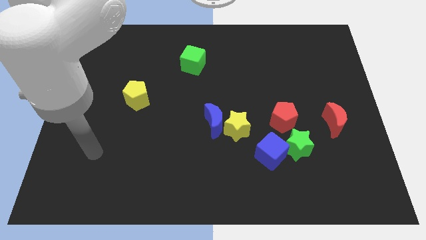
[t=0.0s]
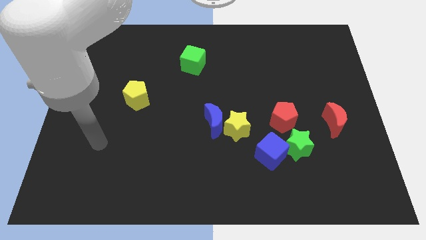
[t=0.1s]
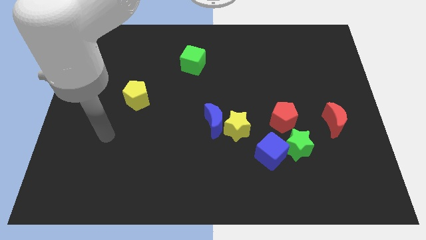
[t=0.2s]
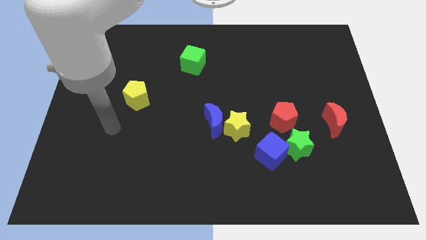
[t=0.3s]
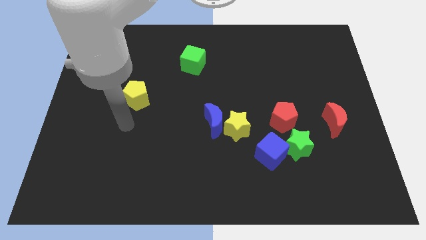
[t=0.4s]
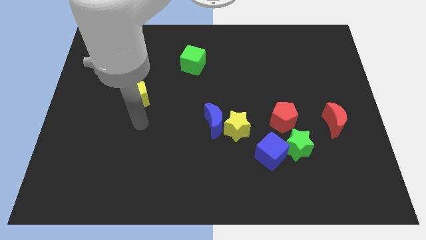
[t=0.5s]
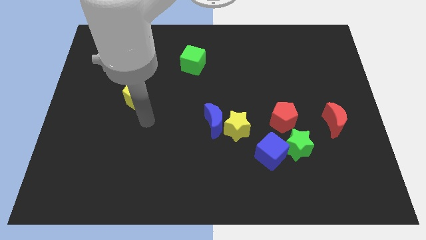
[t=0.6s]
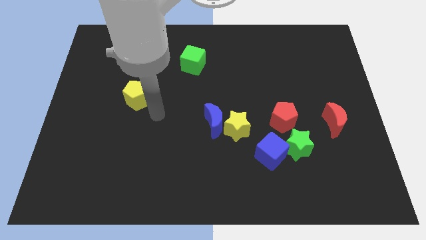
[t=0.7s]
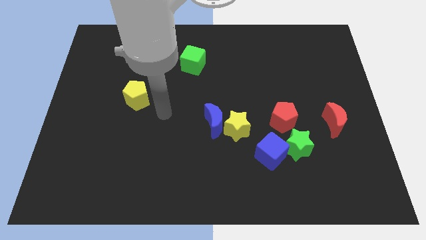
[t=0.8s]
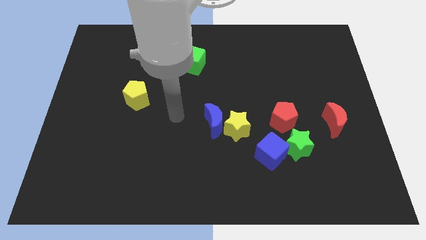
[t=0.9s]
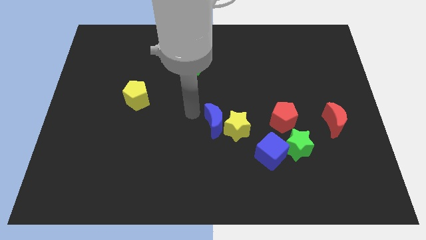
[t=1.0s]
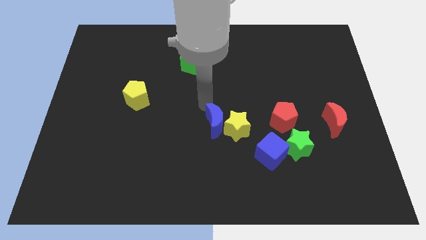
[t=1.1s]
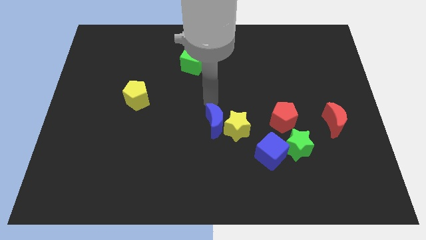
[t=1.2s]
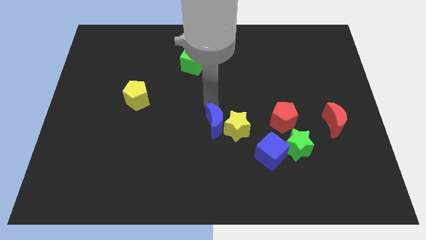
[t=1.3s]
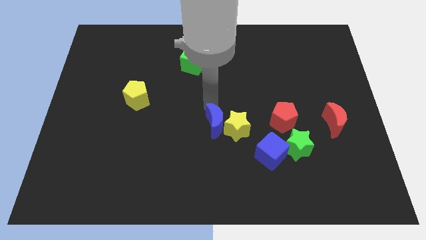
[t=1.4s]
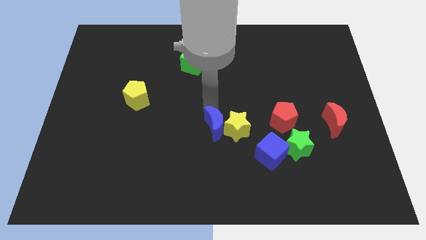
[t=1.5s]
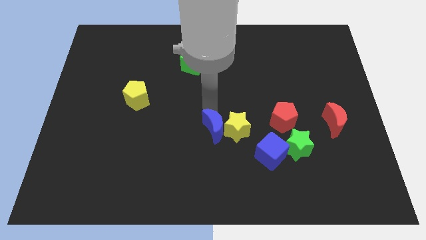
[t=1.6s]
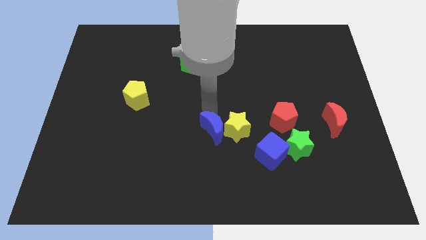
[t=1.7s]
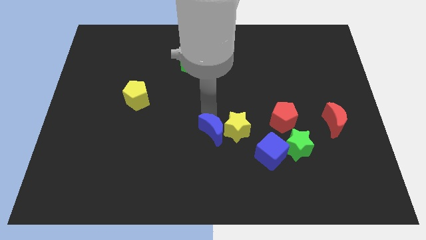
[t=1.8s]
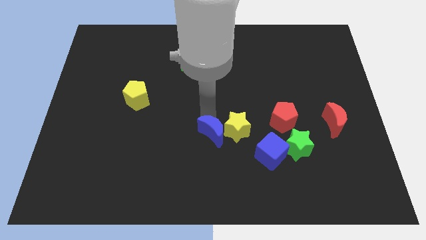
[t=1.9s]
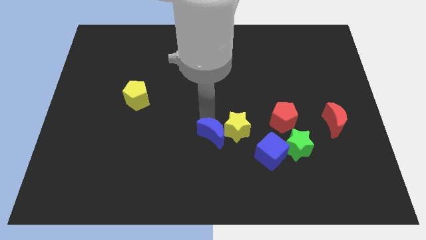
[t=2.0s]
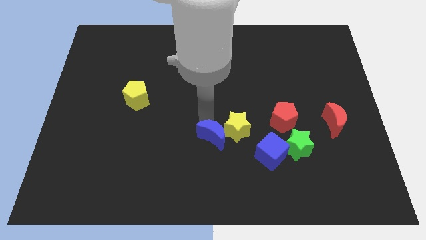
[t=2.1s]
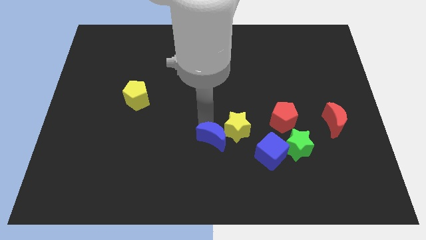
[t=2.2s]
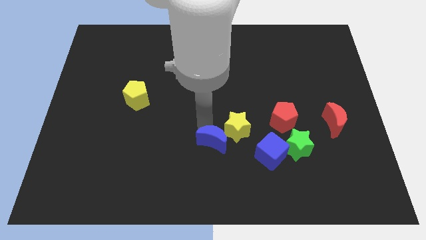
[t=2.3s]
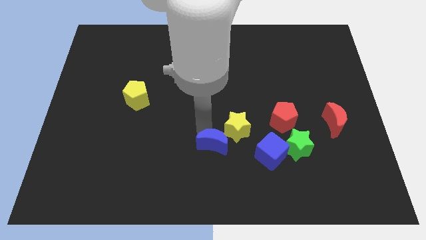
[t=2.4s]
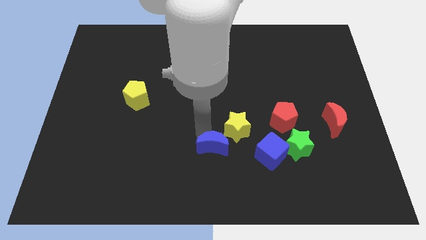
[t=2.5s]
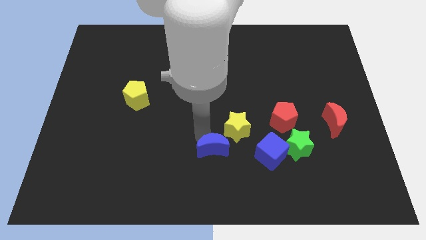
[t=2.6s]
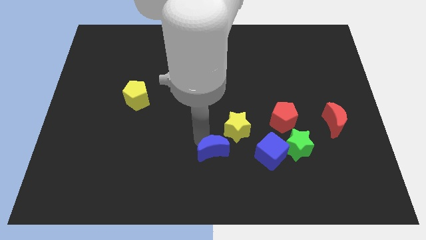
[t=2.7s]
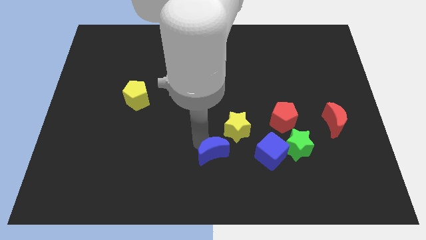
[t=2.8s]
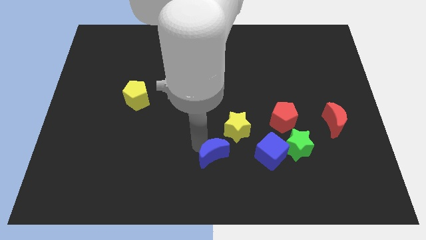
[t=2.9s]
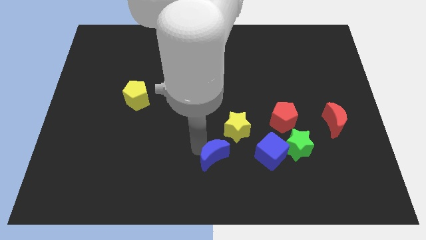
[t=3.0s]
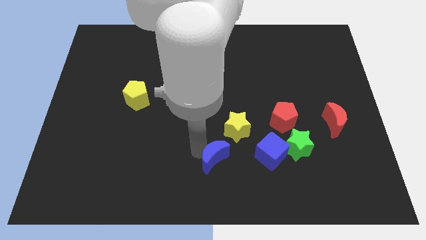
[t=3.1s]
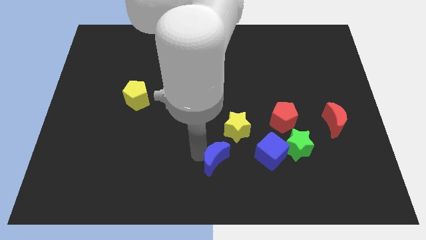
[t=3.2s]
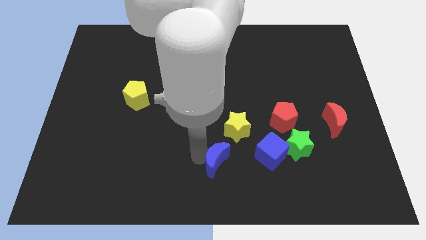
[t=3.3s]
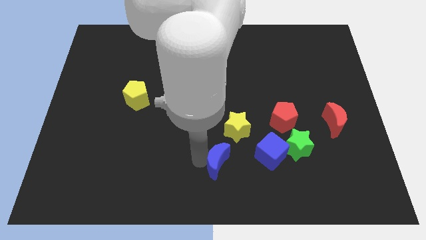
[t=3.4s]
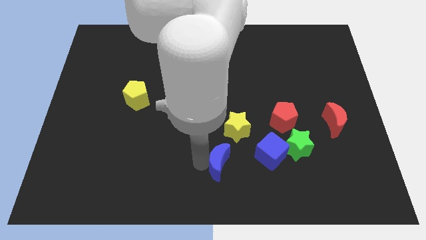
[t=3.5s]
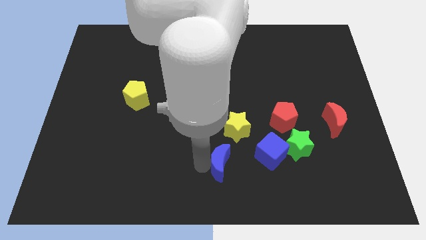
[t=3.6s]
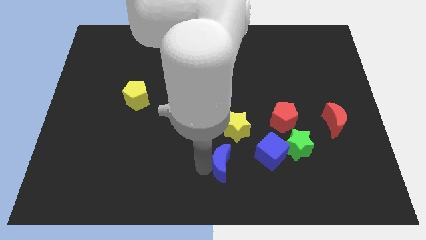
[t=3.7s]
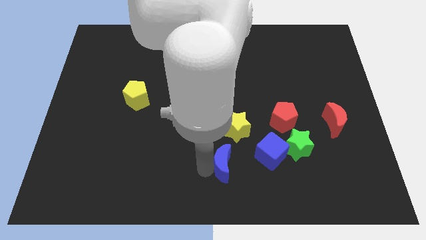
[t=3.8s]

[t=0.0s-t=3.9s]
slightly slide the blue moon down and right

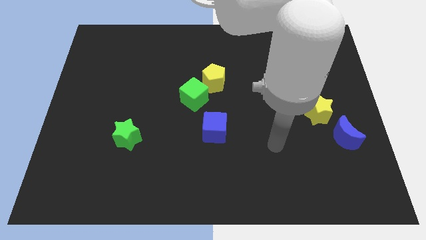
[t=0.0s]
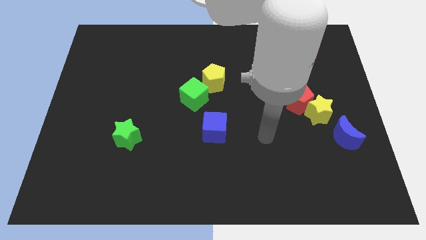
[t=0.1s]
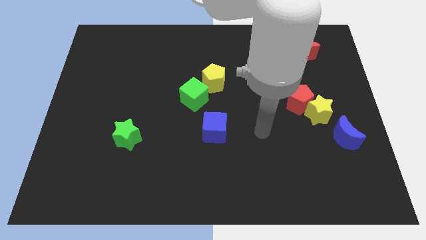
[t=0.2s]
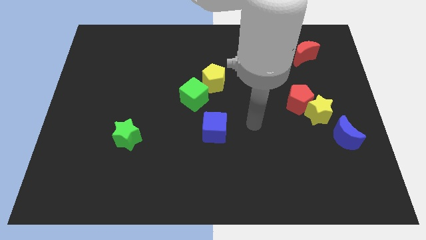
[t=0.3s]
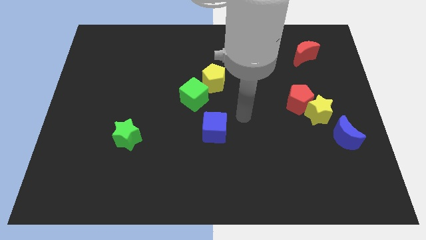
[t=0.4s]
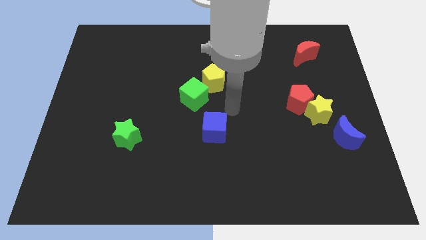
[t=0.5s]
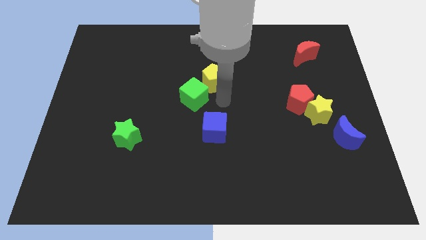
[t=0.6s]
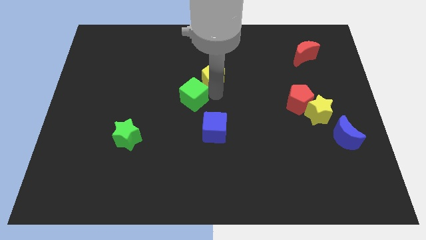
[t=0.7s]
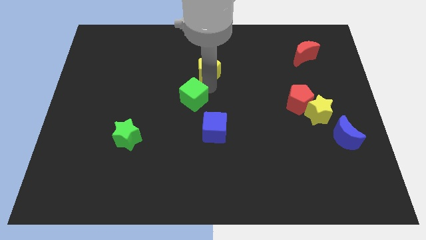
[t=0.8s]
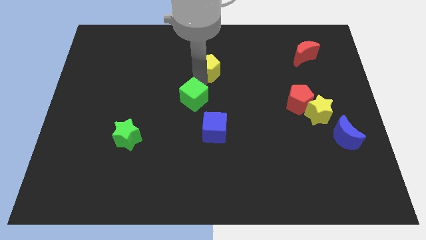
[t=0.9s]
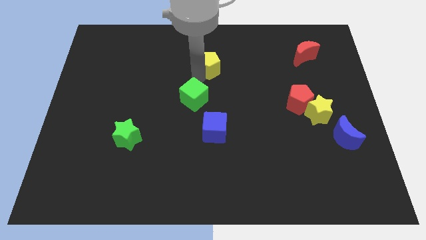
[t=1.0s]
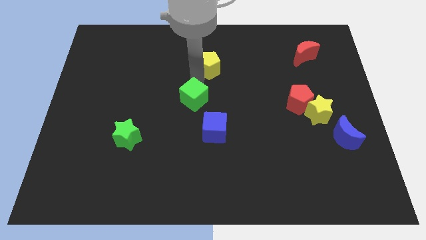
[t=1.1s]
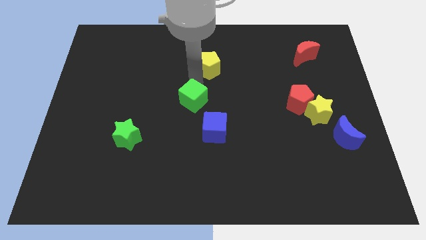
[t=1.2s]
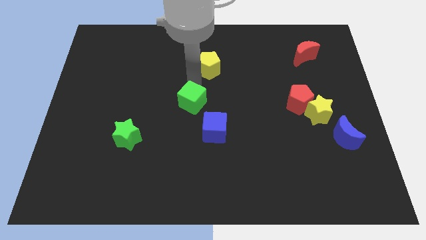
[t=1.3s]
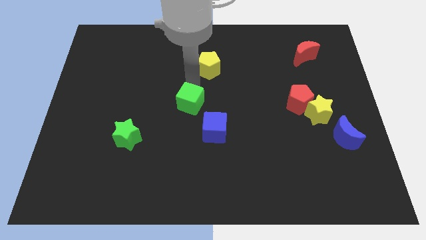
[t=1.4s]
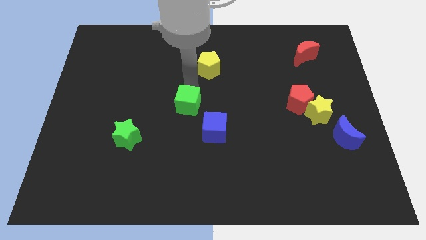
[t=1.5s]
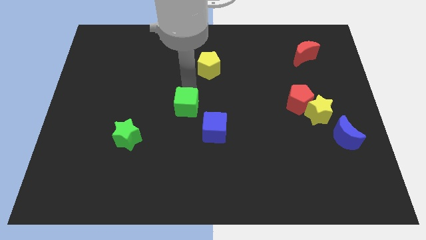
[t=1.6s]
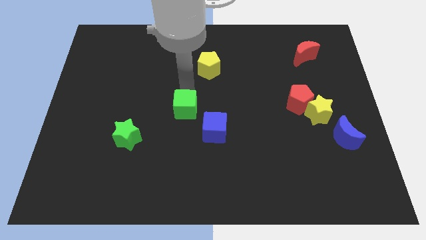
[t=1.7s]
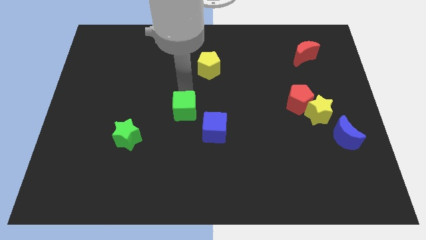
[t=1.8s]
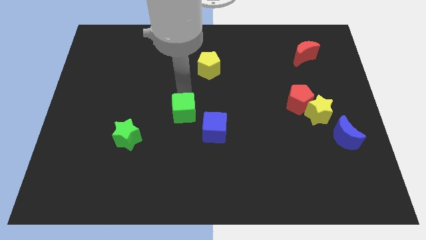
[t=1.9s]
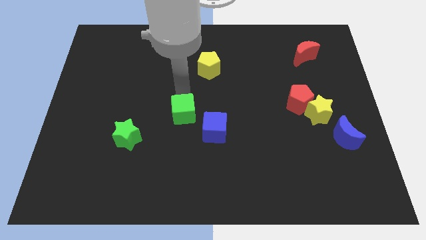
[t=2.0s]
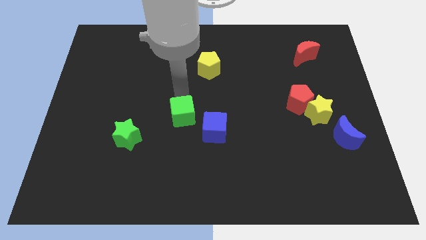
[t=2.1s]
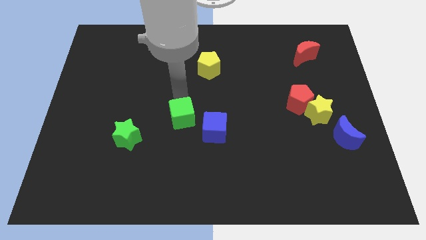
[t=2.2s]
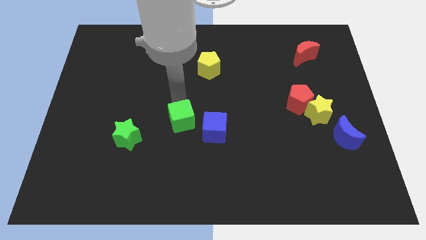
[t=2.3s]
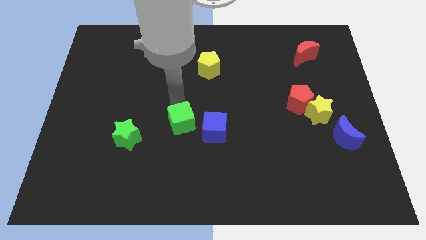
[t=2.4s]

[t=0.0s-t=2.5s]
move the green cube downwards a little bit

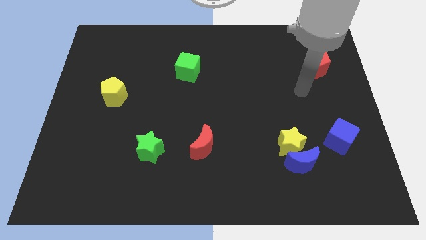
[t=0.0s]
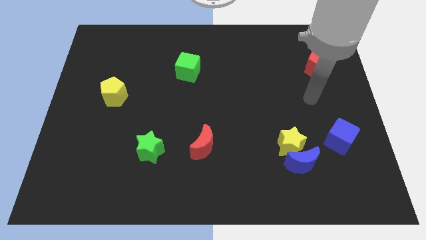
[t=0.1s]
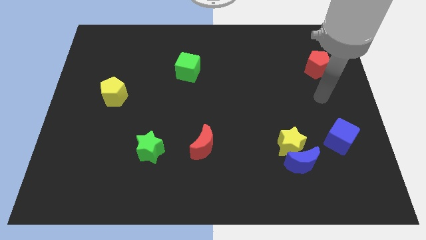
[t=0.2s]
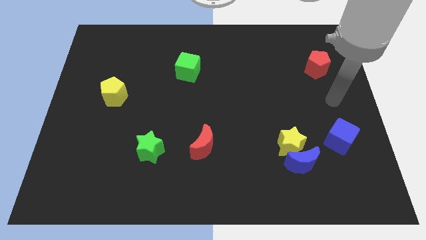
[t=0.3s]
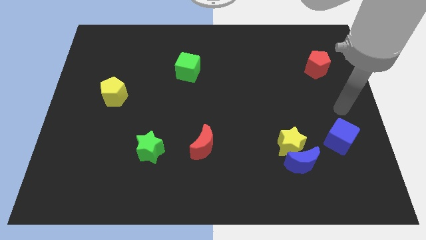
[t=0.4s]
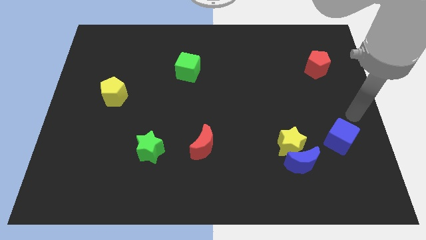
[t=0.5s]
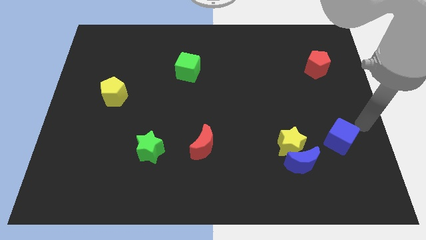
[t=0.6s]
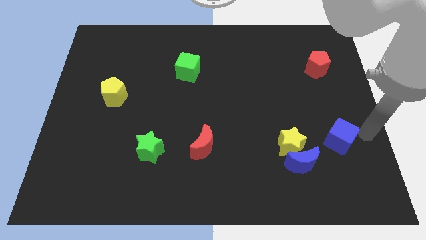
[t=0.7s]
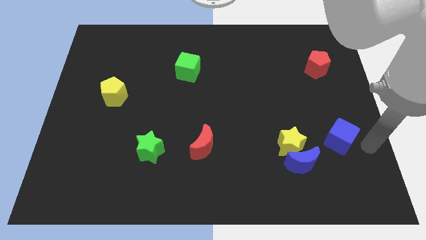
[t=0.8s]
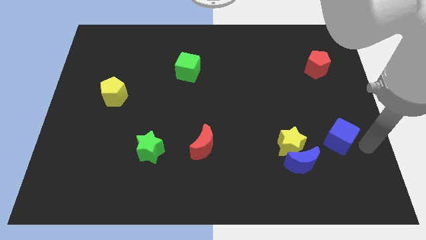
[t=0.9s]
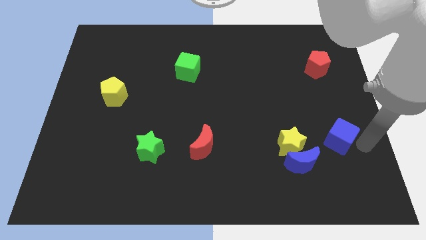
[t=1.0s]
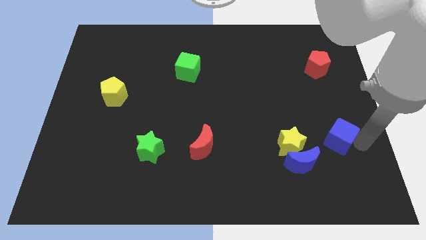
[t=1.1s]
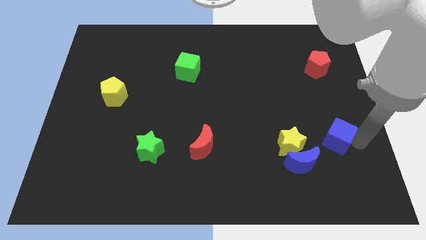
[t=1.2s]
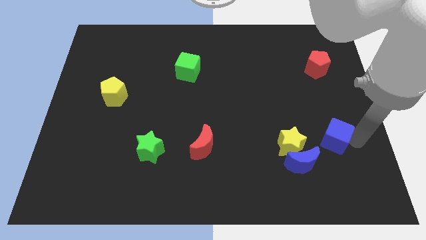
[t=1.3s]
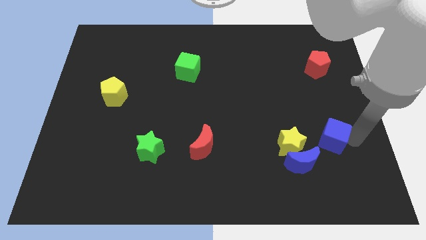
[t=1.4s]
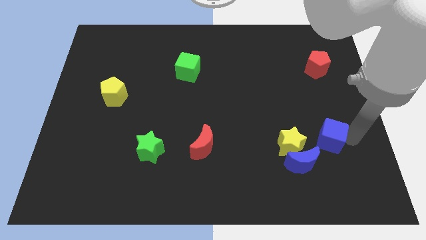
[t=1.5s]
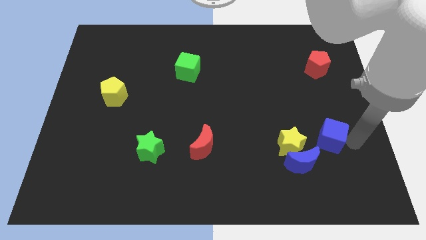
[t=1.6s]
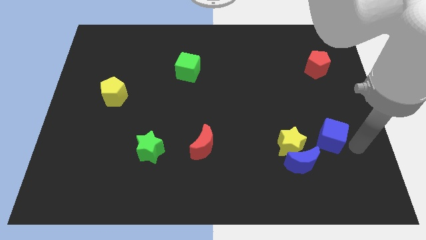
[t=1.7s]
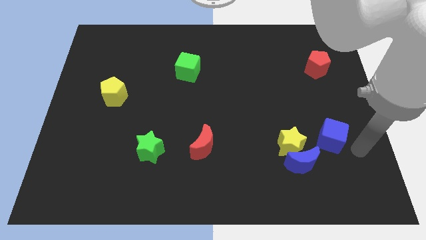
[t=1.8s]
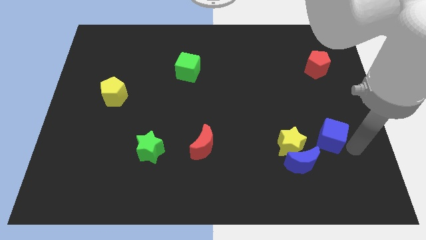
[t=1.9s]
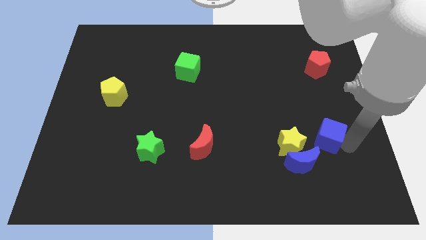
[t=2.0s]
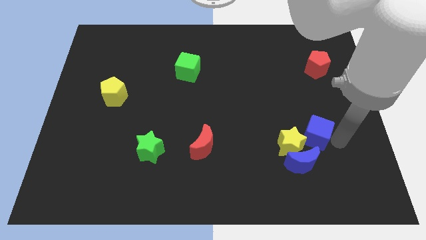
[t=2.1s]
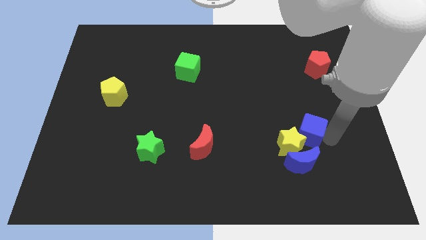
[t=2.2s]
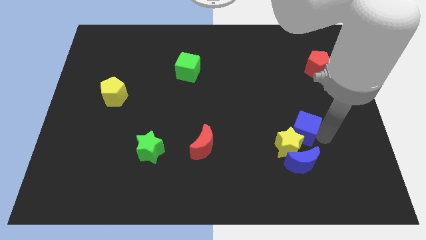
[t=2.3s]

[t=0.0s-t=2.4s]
push the blue cube somewhat to the left
